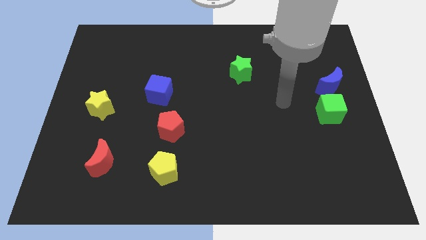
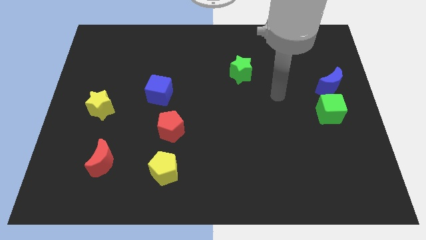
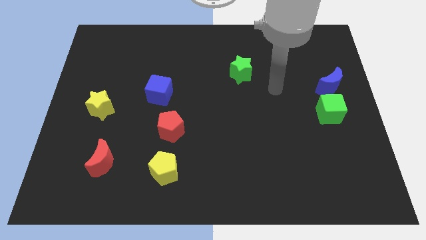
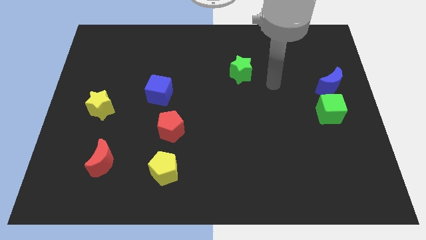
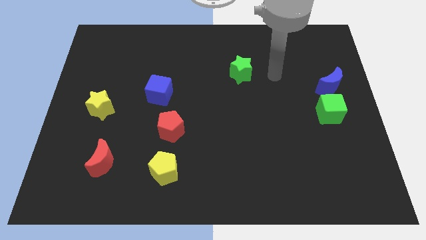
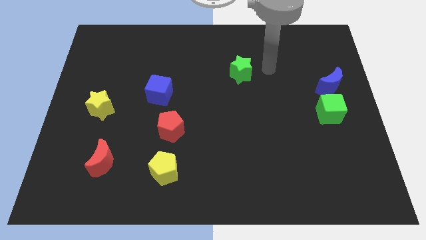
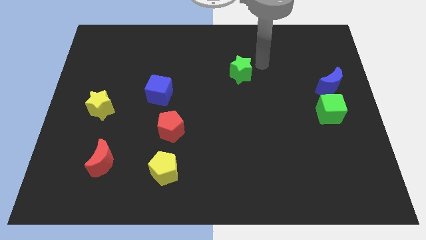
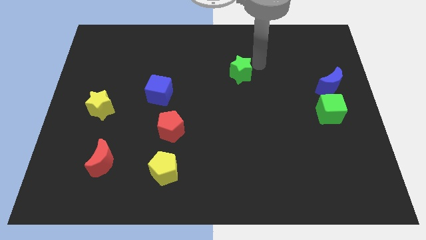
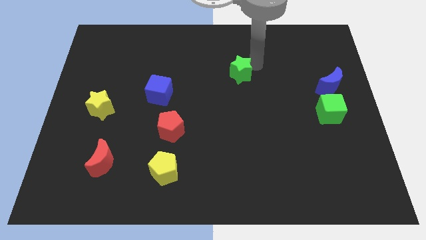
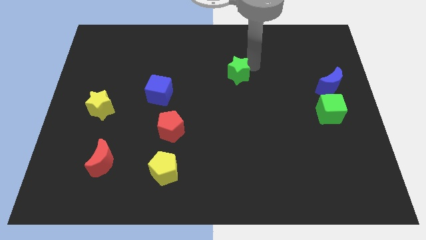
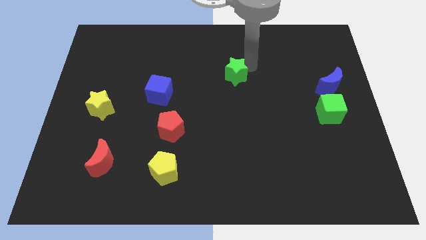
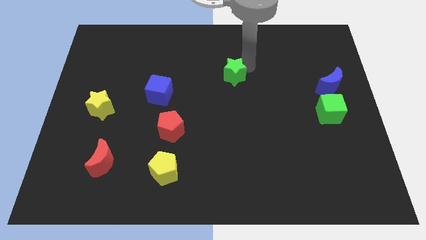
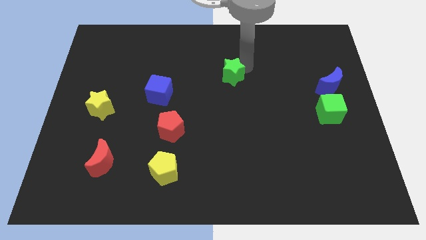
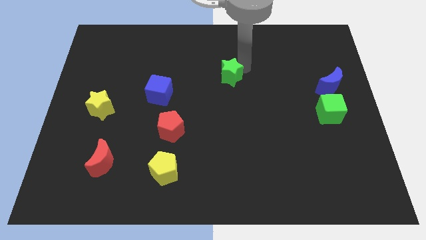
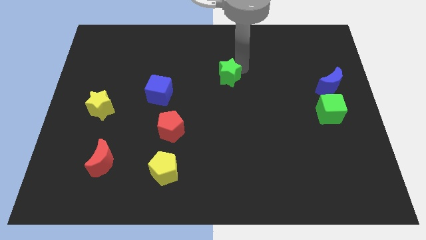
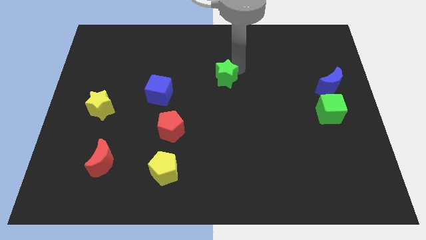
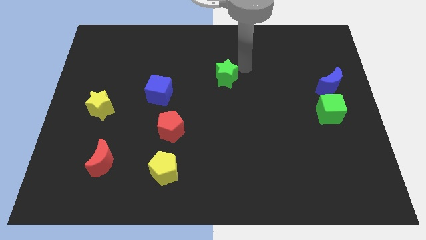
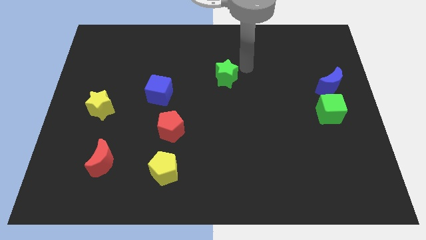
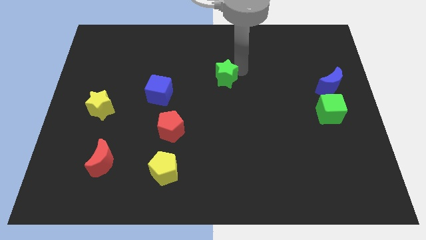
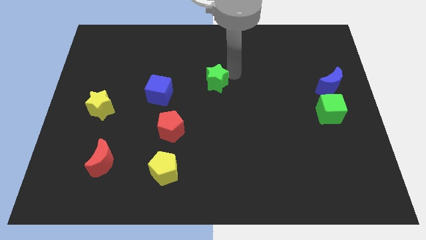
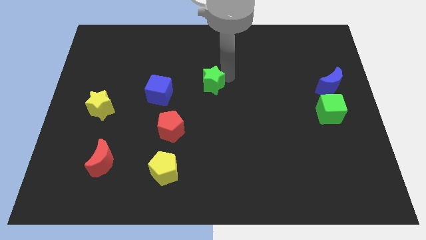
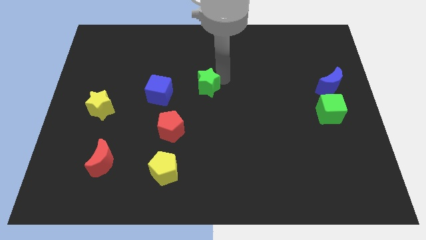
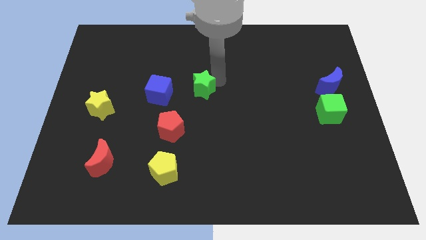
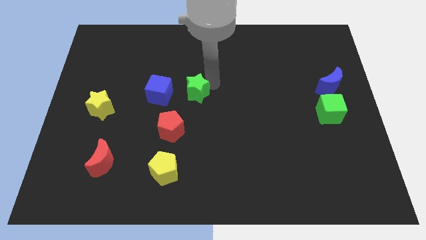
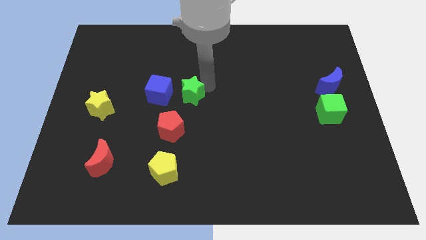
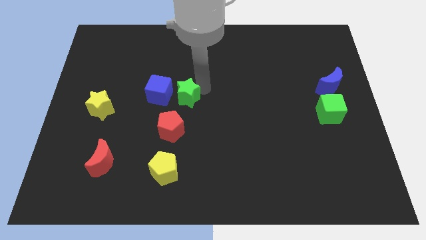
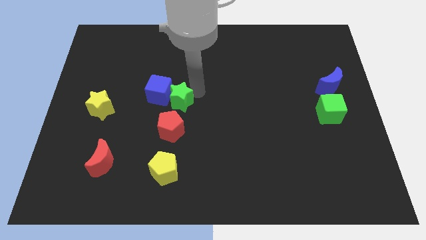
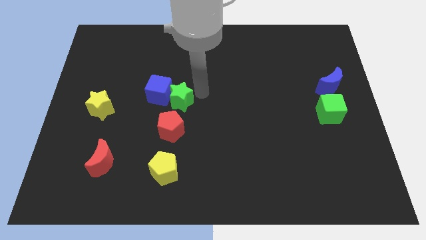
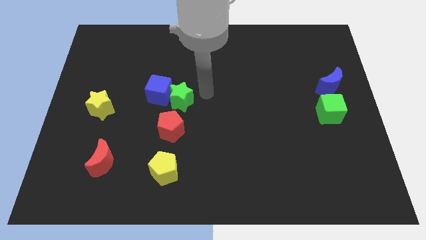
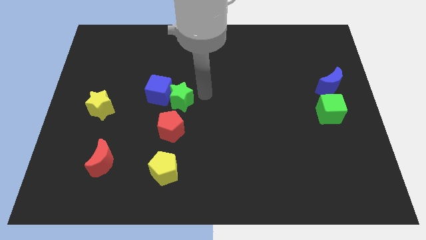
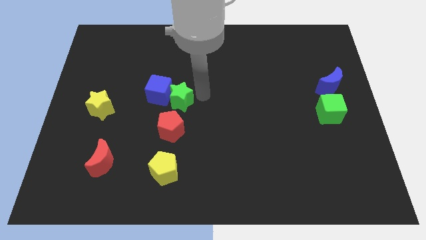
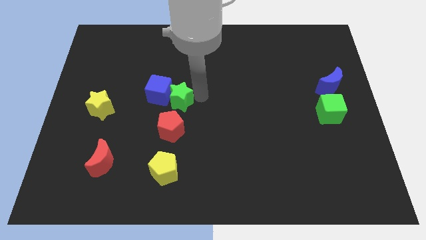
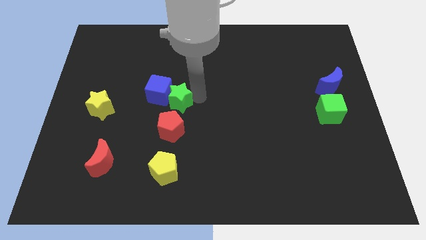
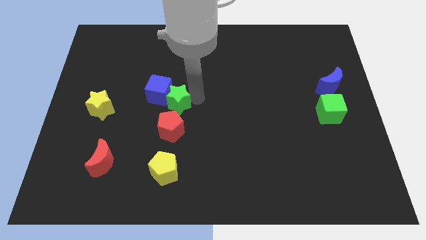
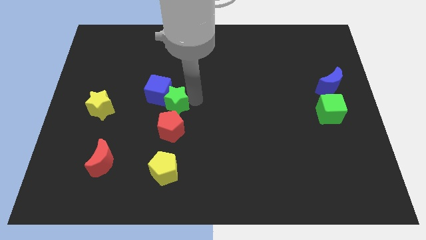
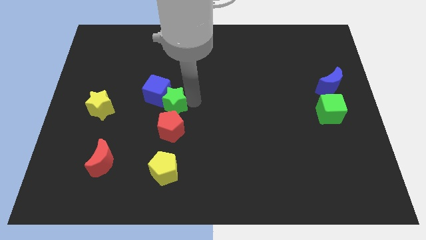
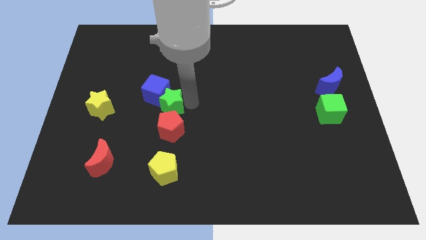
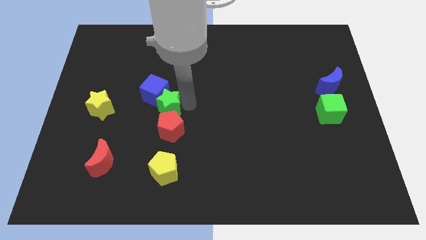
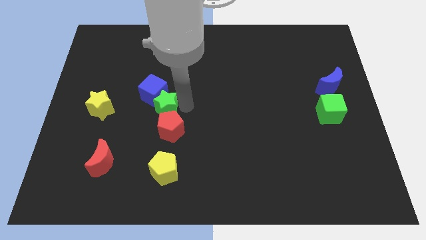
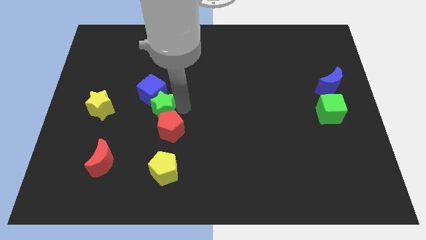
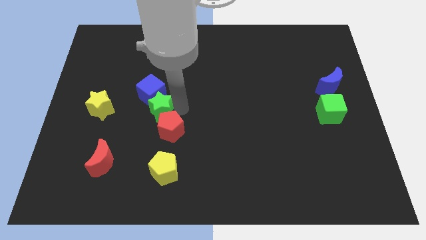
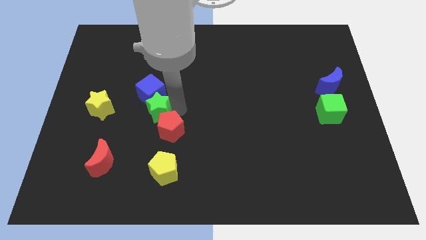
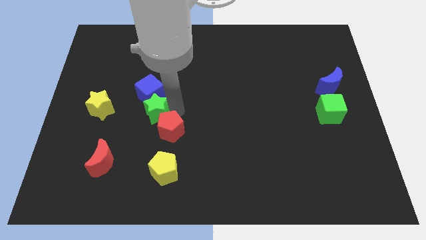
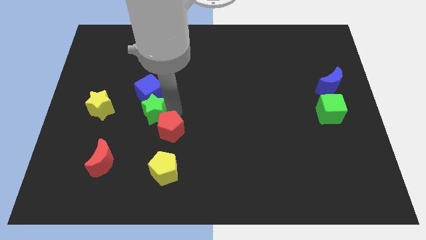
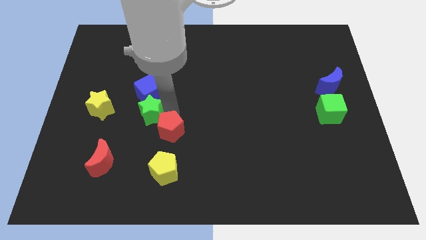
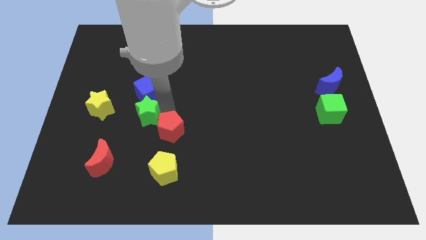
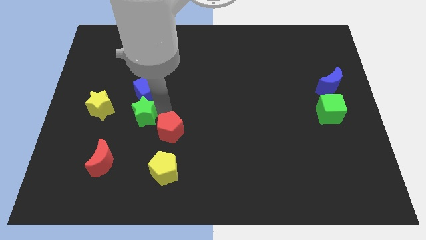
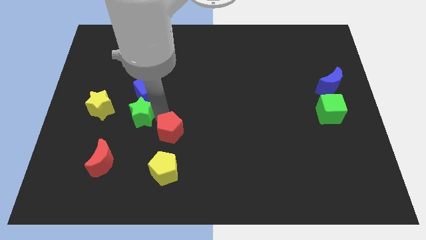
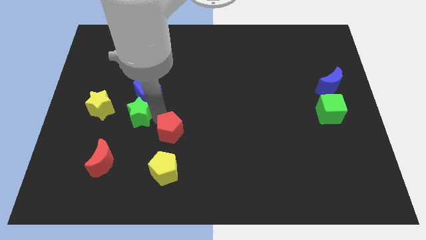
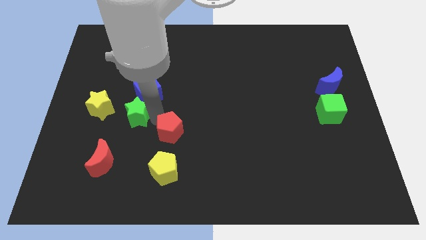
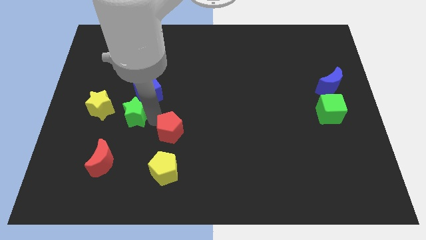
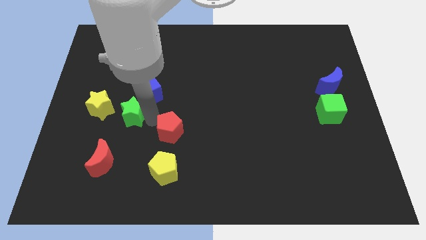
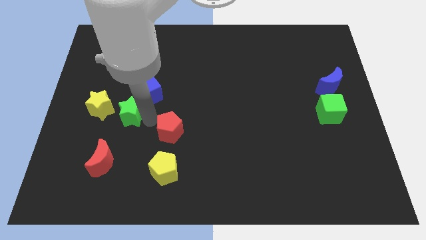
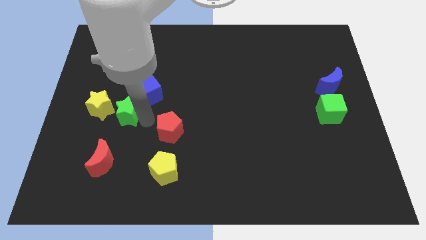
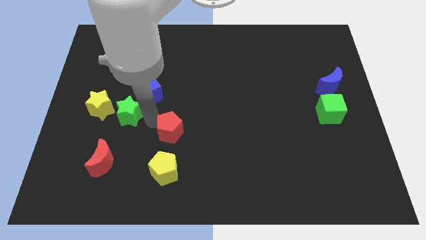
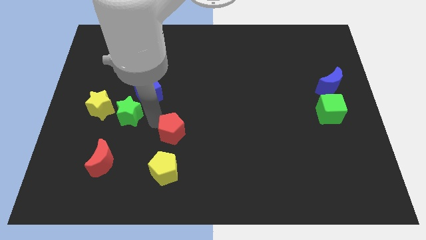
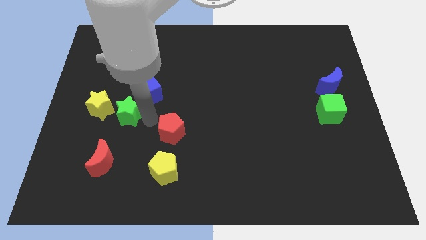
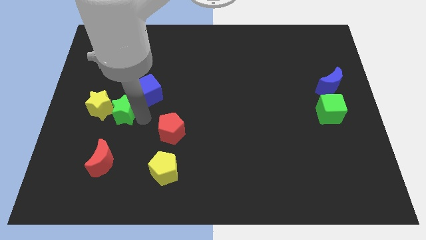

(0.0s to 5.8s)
slide the green star close to the yellow star

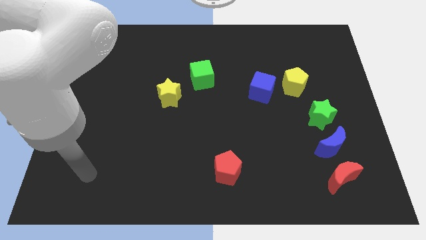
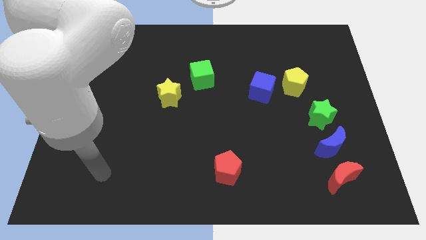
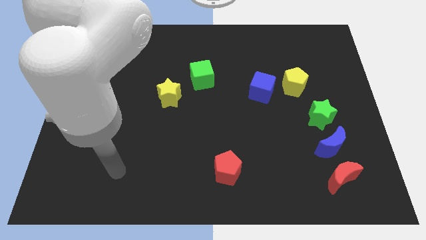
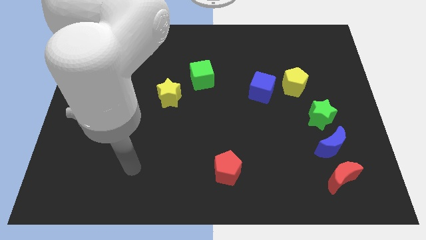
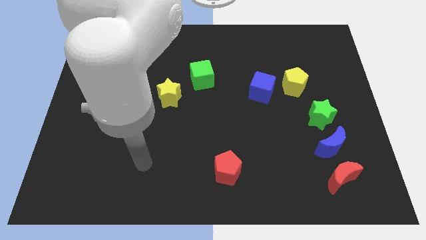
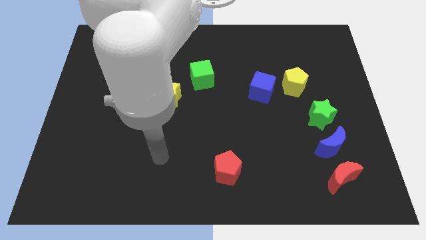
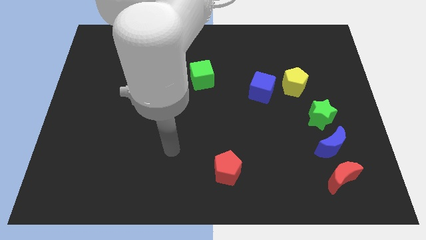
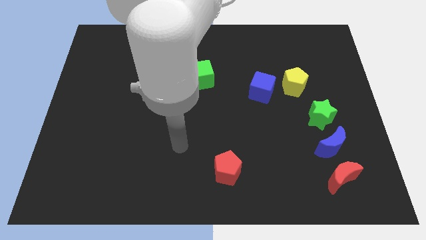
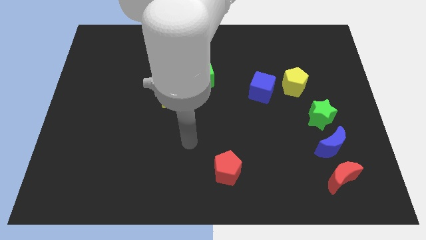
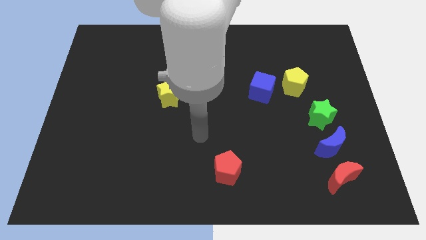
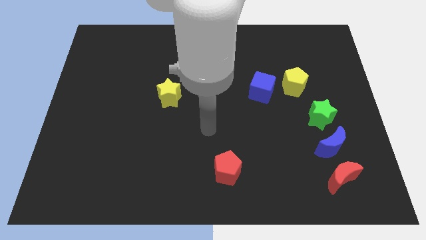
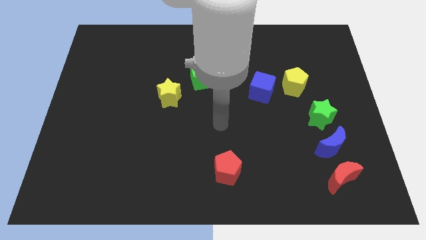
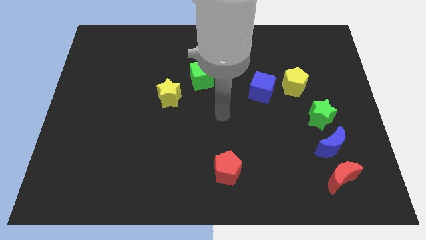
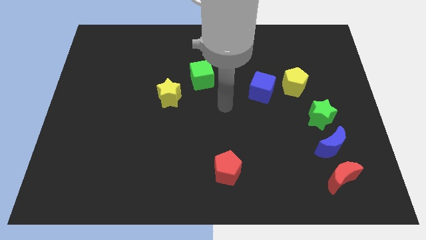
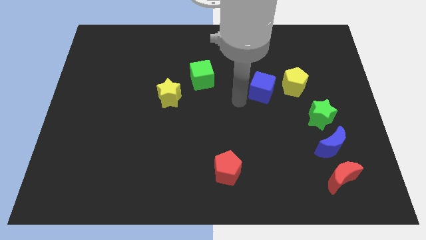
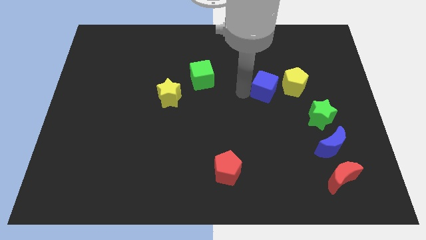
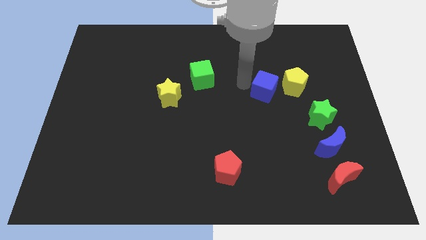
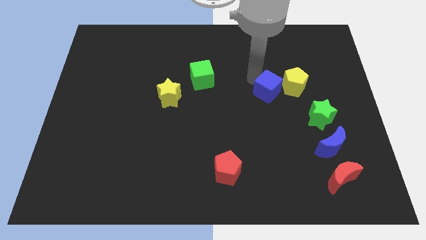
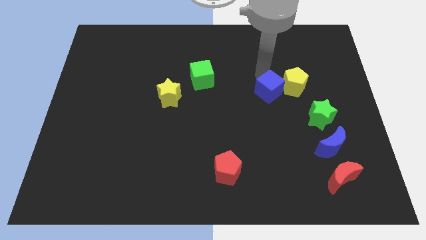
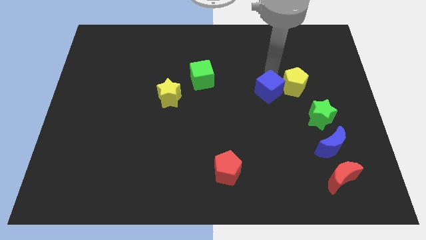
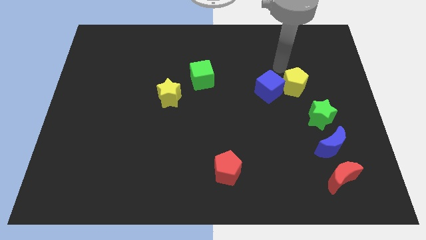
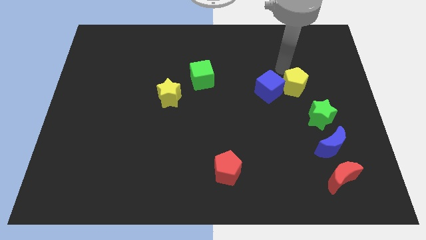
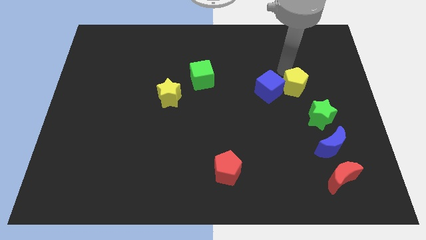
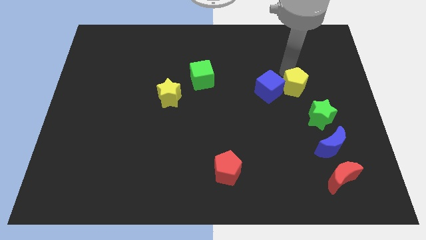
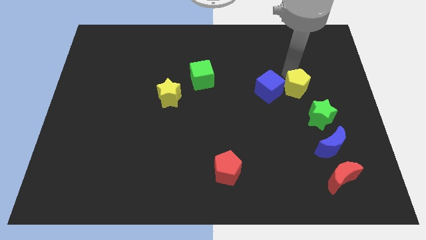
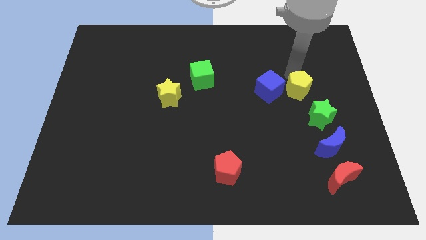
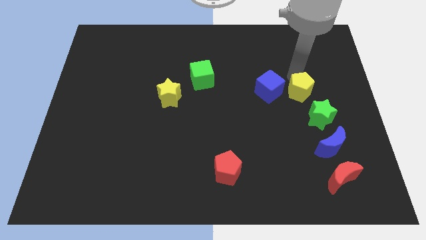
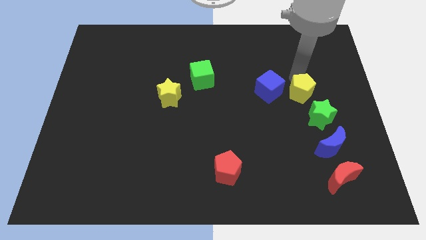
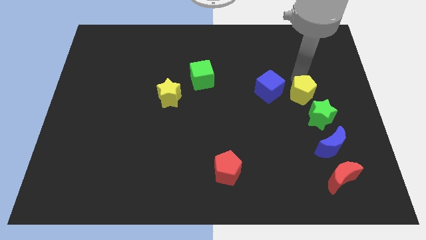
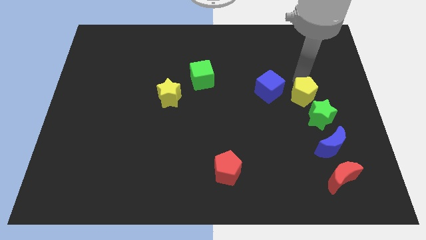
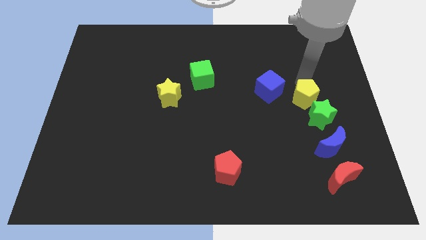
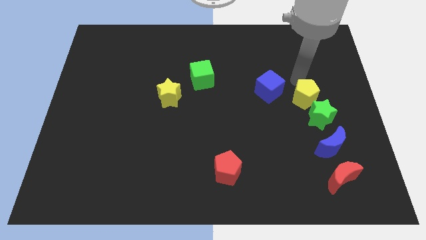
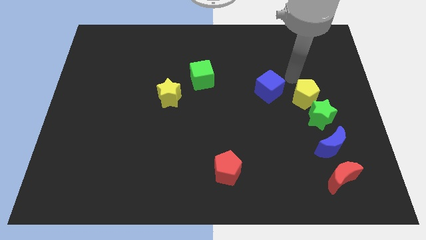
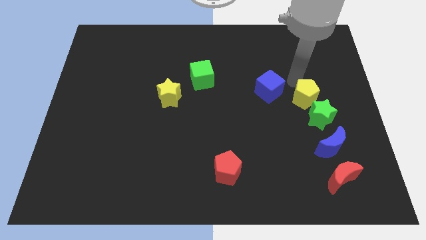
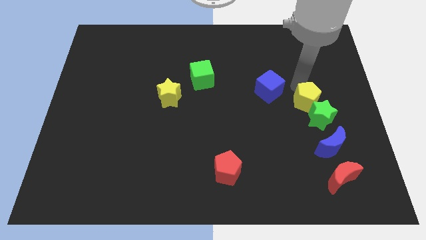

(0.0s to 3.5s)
move the yellow pentagon to the green star
